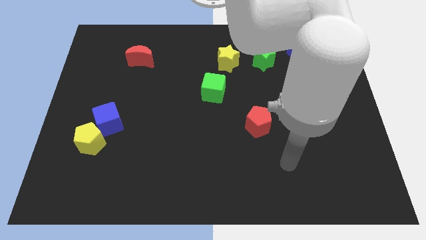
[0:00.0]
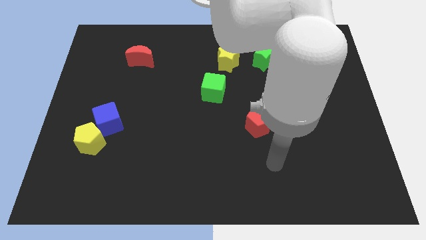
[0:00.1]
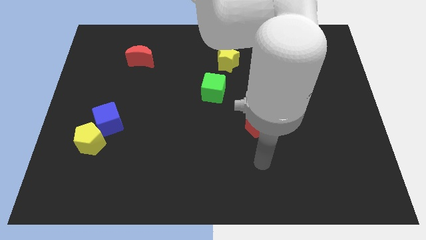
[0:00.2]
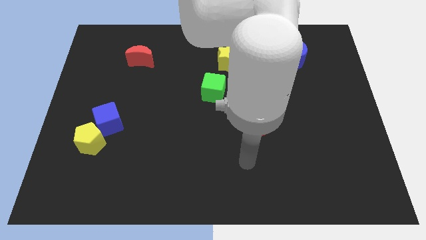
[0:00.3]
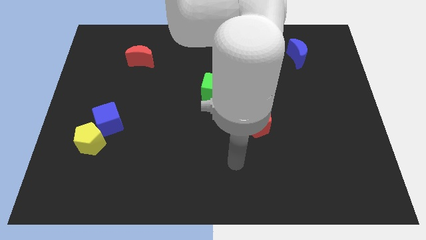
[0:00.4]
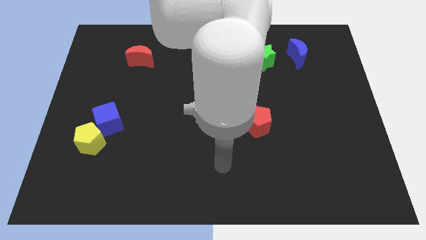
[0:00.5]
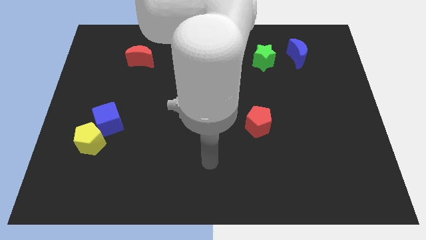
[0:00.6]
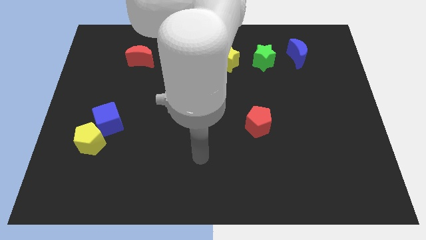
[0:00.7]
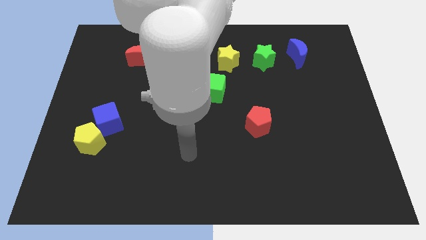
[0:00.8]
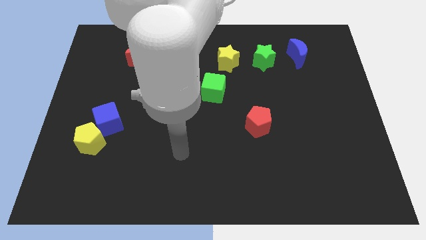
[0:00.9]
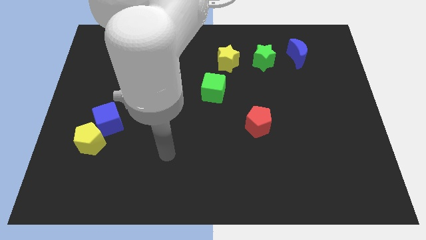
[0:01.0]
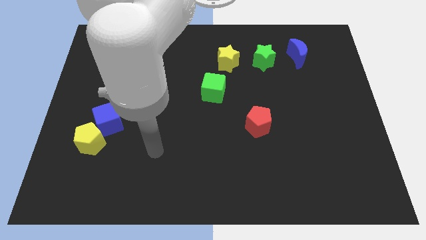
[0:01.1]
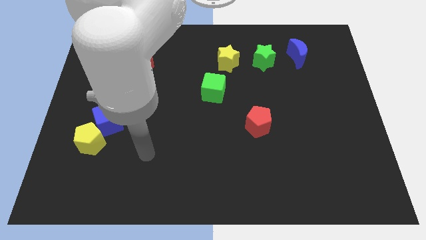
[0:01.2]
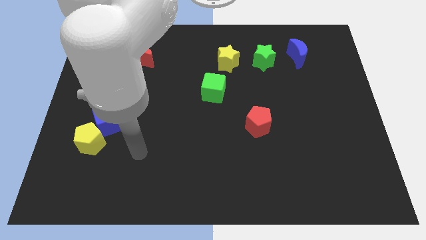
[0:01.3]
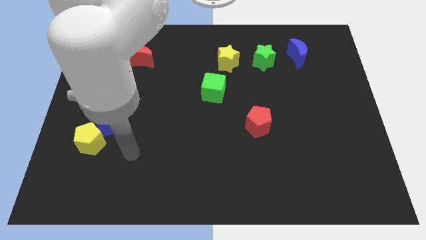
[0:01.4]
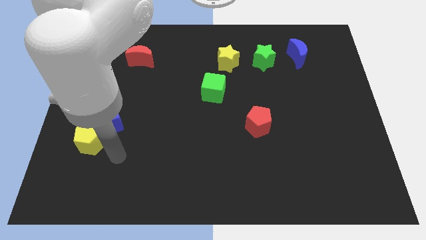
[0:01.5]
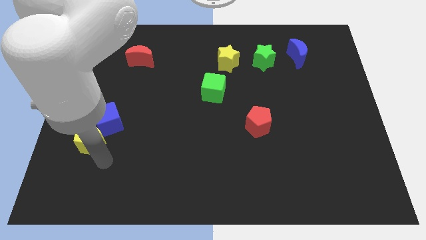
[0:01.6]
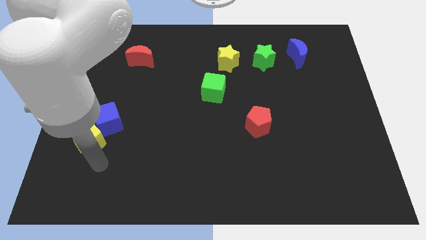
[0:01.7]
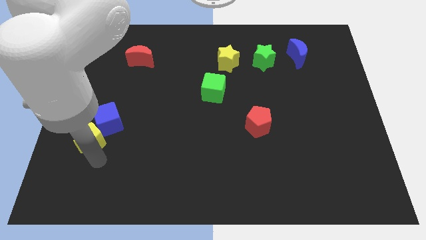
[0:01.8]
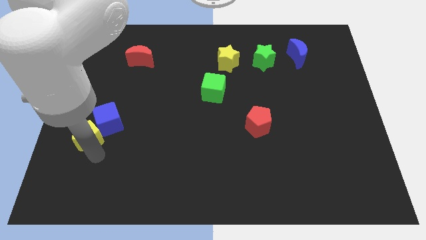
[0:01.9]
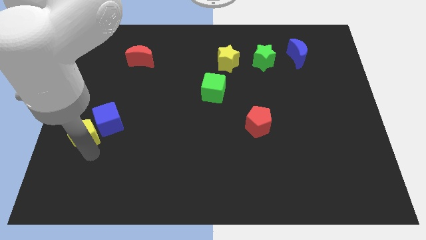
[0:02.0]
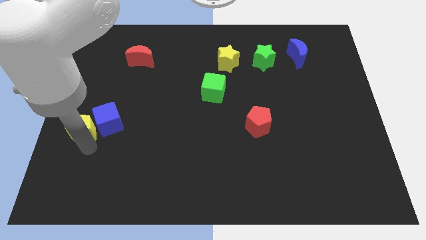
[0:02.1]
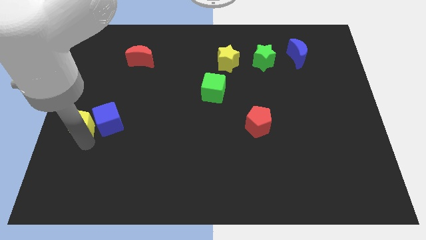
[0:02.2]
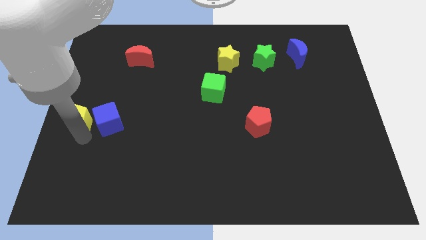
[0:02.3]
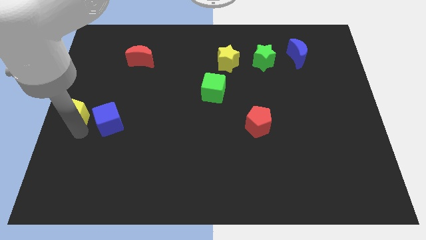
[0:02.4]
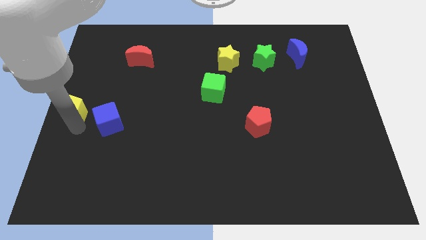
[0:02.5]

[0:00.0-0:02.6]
move the yellow pentagon somewhat up

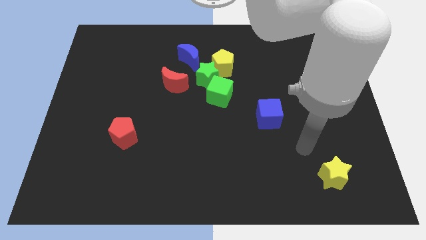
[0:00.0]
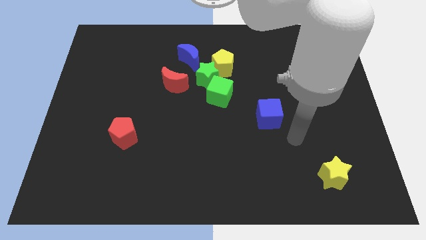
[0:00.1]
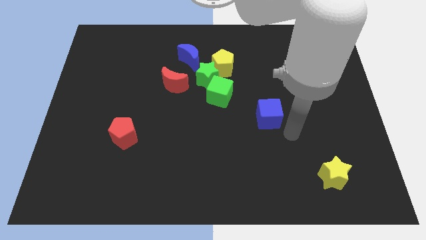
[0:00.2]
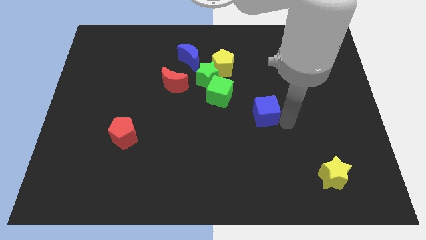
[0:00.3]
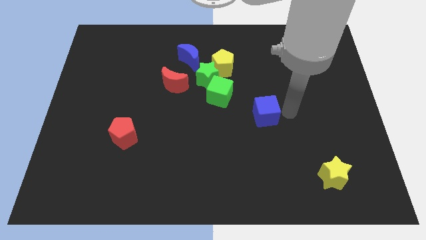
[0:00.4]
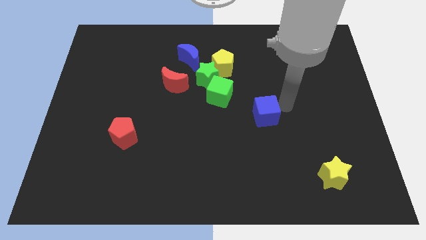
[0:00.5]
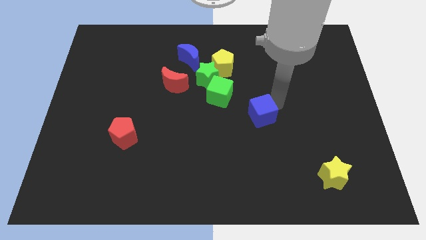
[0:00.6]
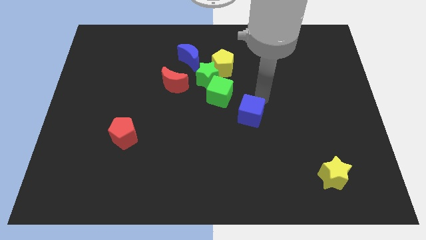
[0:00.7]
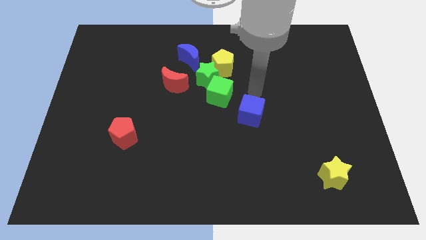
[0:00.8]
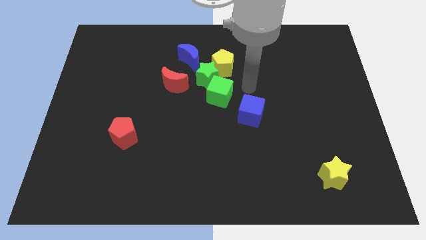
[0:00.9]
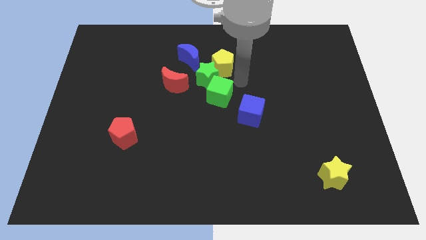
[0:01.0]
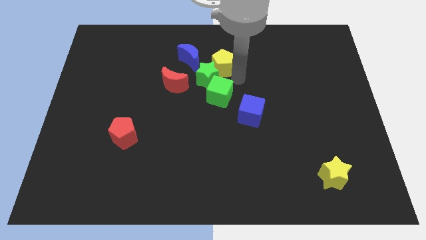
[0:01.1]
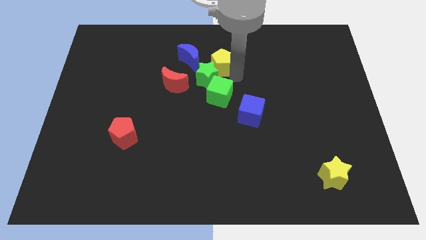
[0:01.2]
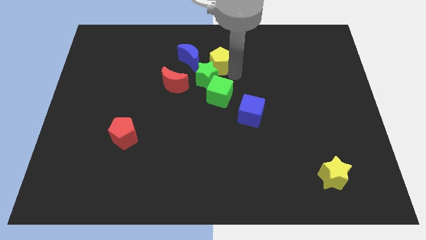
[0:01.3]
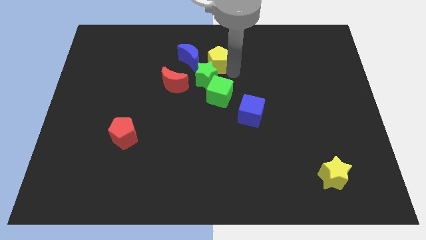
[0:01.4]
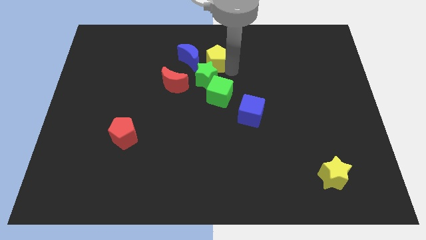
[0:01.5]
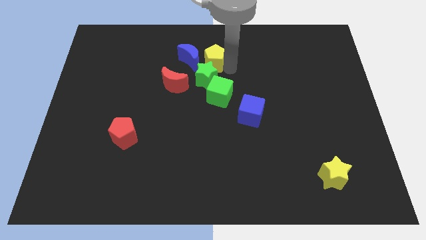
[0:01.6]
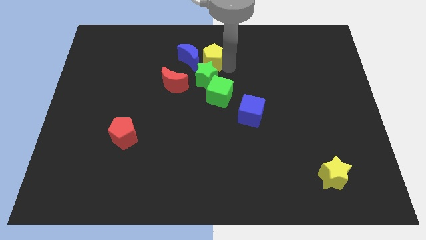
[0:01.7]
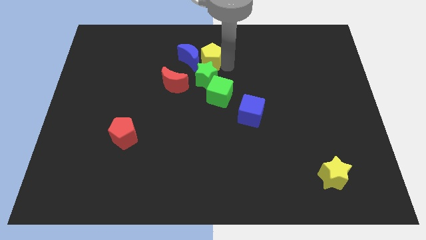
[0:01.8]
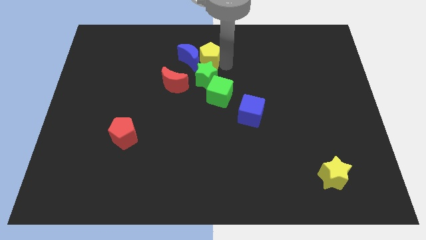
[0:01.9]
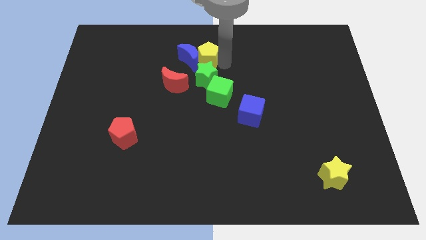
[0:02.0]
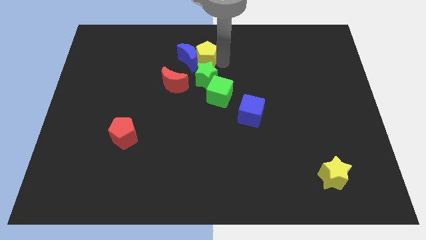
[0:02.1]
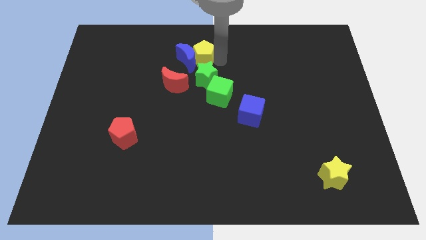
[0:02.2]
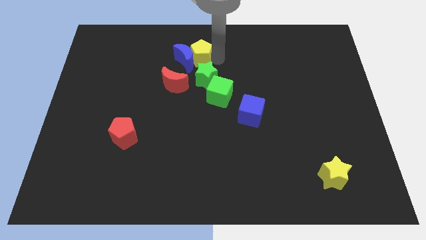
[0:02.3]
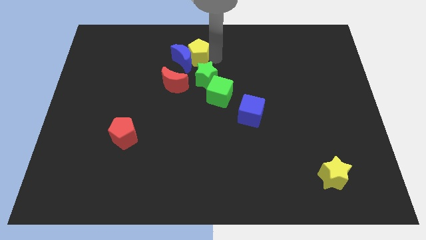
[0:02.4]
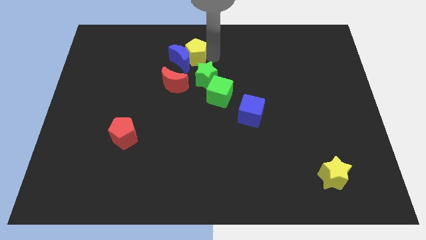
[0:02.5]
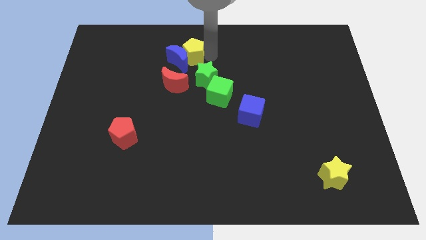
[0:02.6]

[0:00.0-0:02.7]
push the yellow pentagon slightly to the left

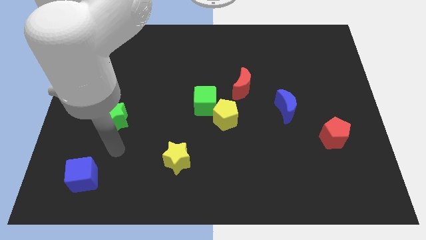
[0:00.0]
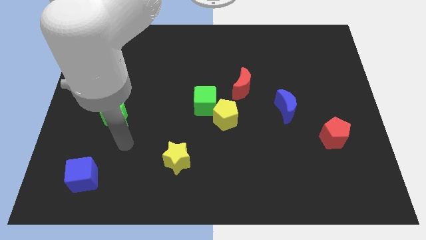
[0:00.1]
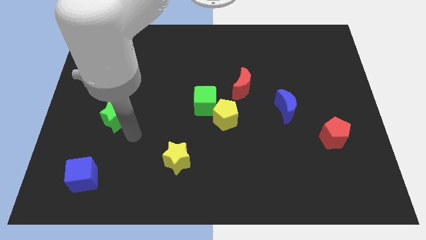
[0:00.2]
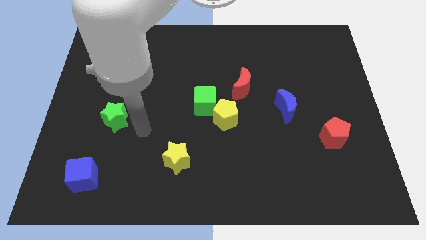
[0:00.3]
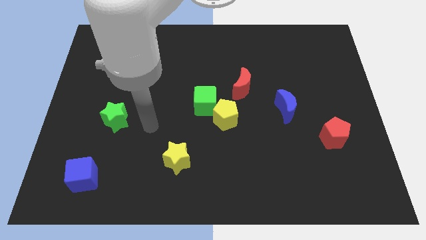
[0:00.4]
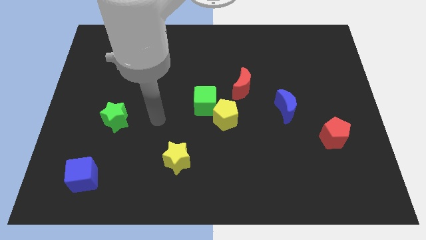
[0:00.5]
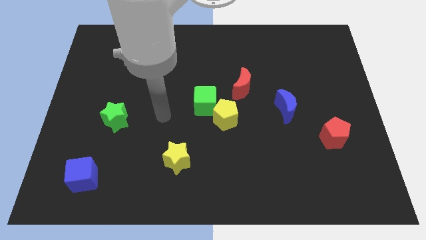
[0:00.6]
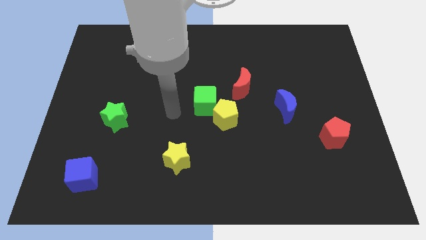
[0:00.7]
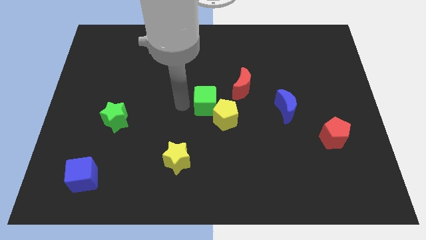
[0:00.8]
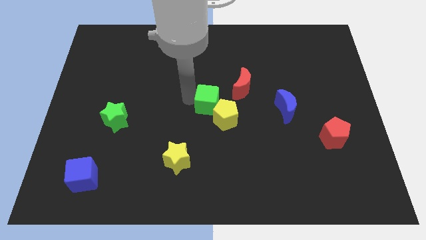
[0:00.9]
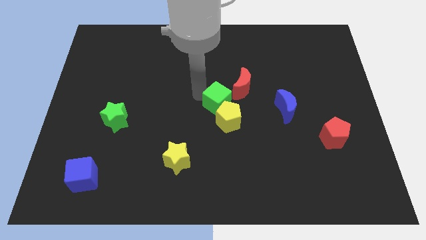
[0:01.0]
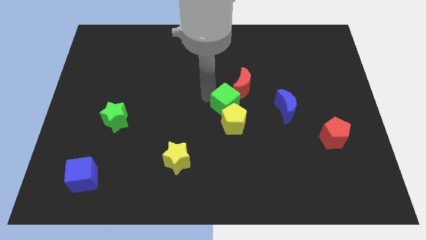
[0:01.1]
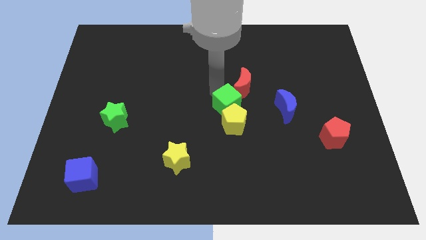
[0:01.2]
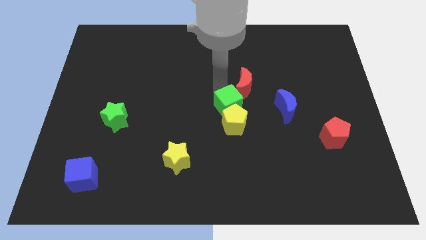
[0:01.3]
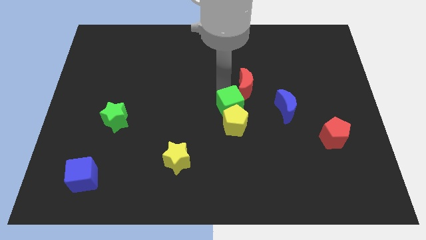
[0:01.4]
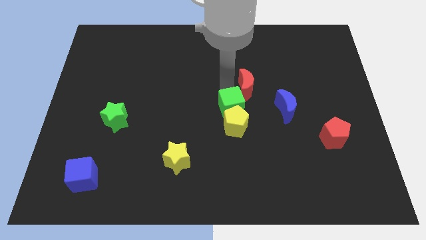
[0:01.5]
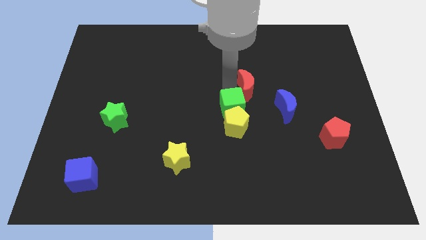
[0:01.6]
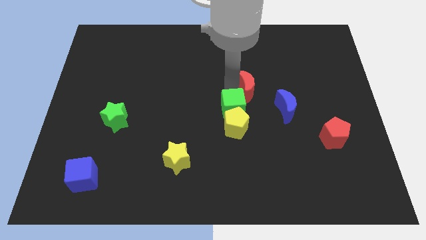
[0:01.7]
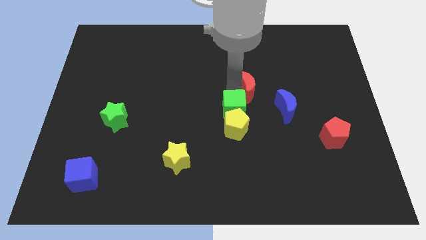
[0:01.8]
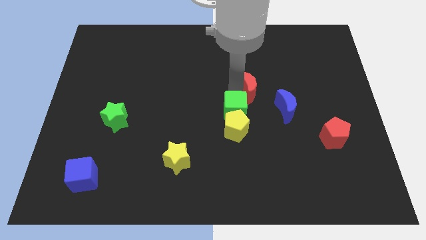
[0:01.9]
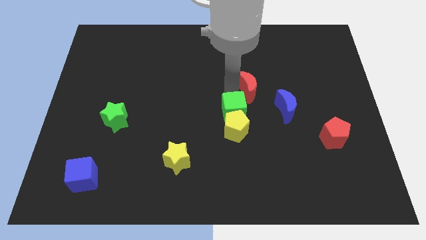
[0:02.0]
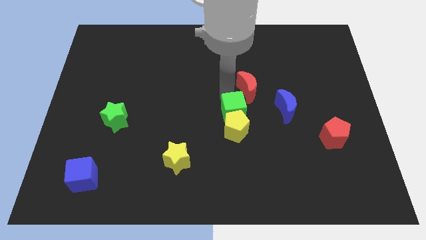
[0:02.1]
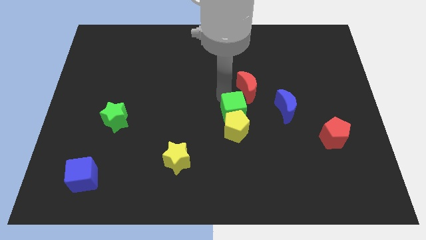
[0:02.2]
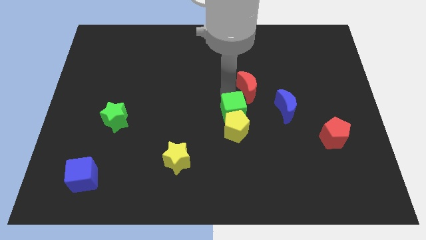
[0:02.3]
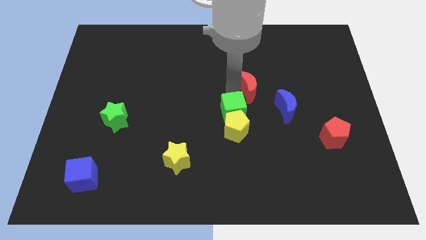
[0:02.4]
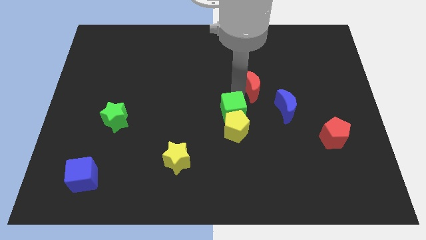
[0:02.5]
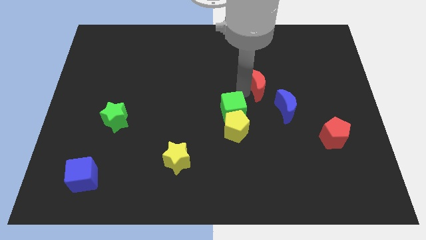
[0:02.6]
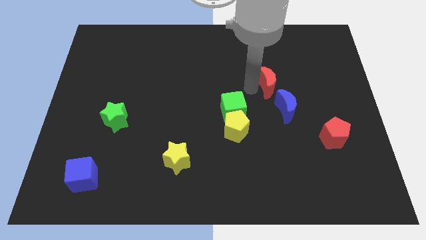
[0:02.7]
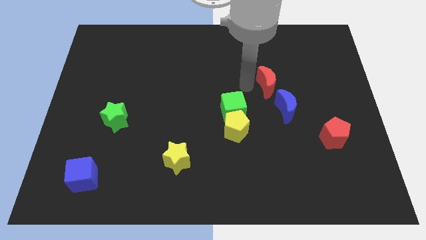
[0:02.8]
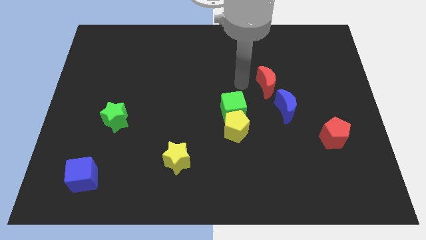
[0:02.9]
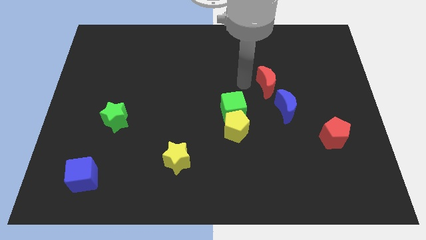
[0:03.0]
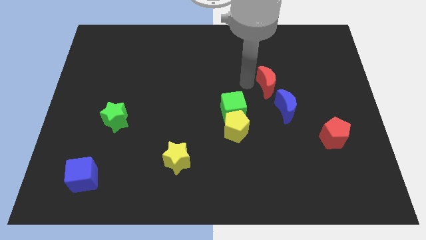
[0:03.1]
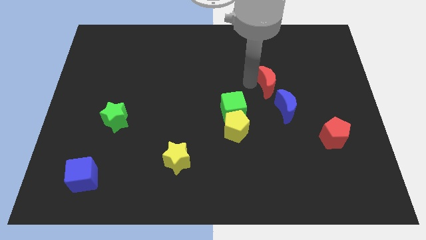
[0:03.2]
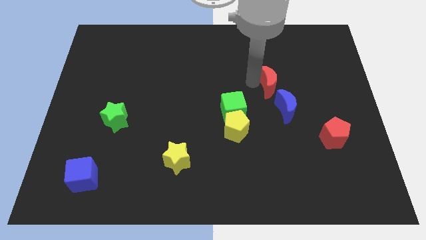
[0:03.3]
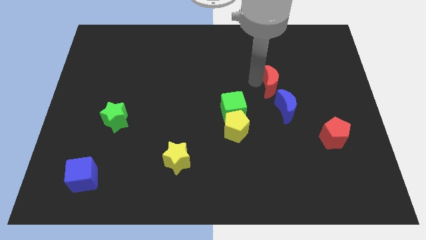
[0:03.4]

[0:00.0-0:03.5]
push the red moon right a little bit
